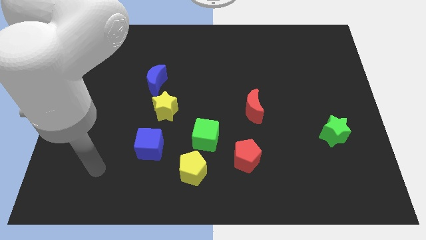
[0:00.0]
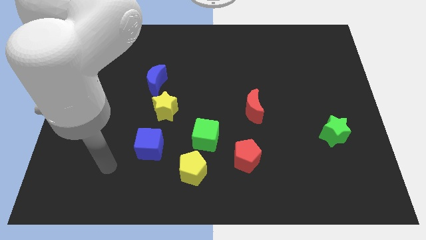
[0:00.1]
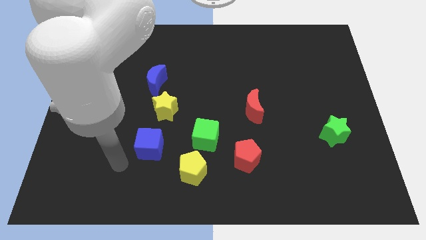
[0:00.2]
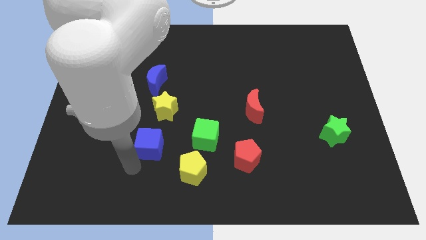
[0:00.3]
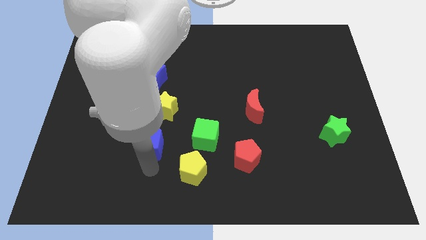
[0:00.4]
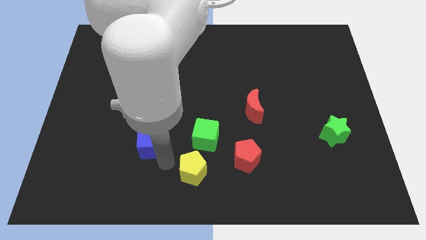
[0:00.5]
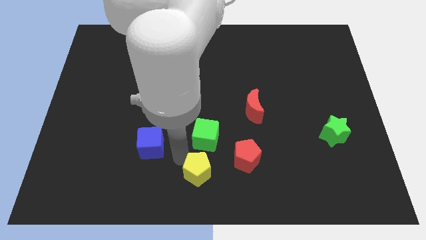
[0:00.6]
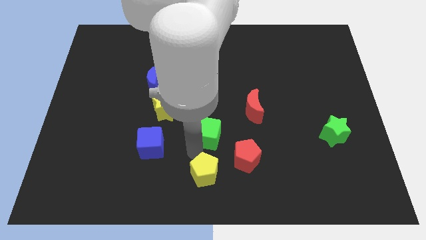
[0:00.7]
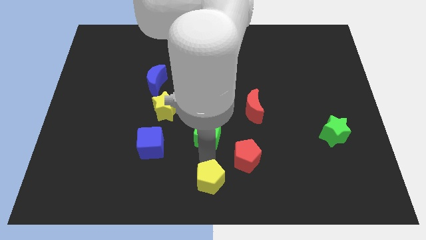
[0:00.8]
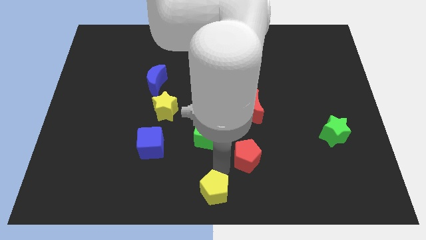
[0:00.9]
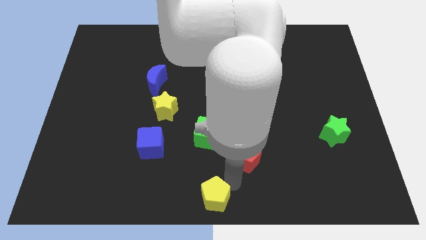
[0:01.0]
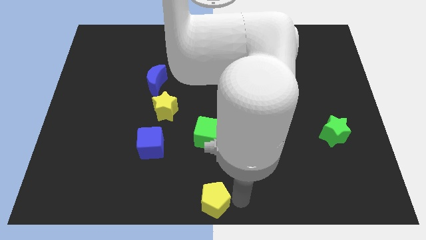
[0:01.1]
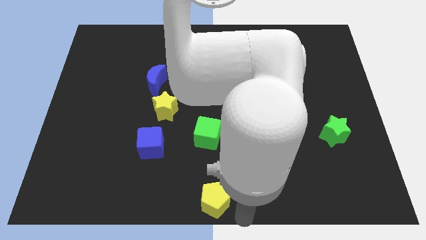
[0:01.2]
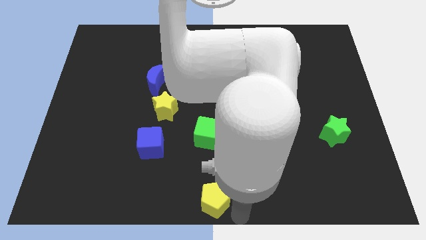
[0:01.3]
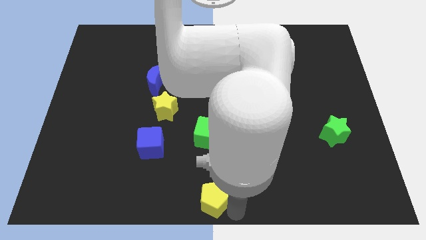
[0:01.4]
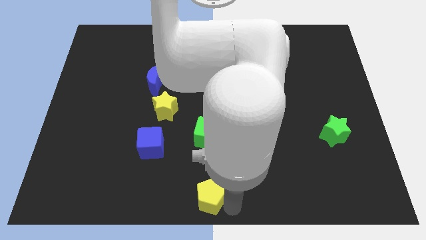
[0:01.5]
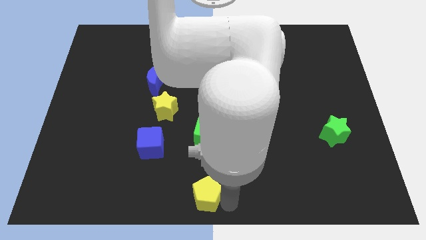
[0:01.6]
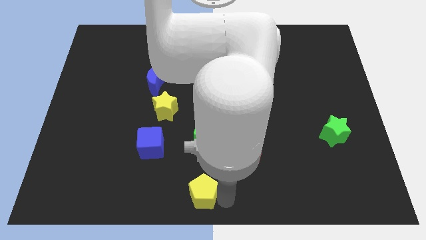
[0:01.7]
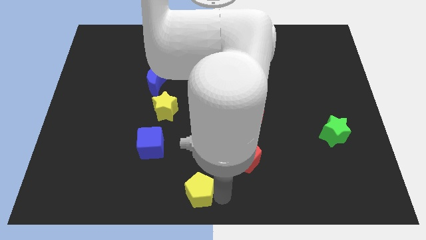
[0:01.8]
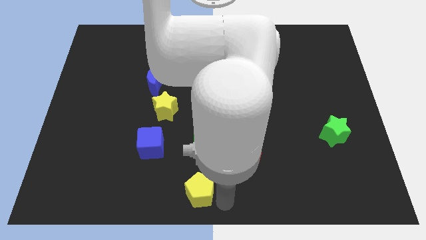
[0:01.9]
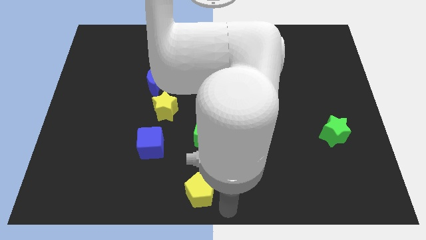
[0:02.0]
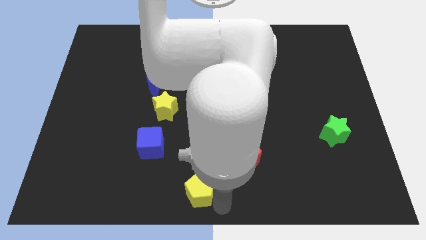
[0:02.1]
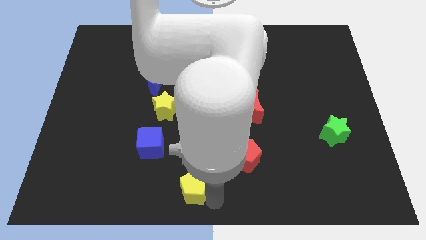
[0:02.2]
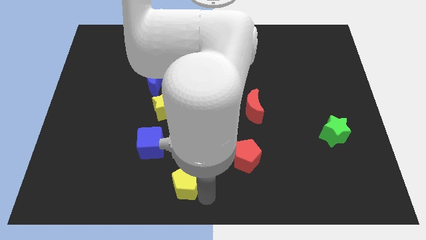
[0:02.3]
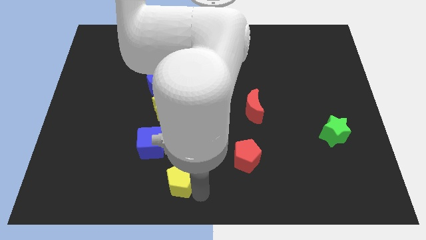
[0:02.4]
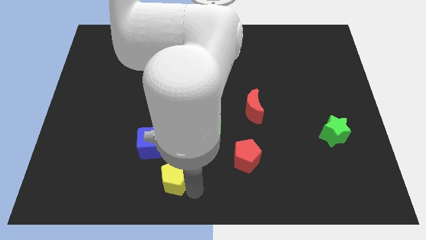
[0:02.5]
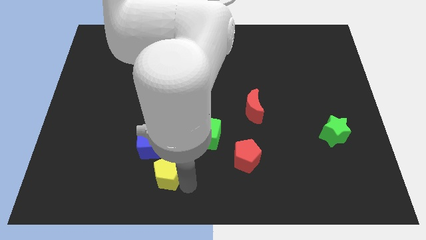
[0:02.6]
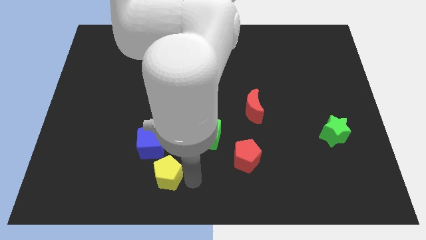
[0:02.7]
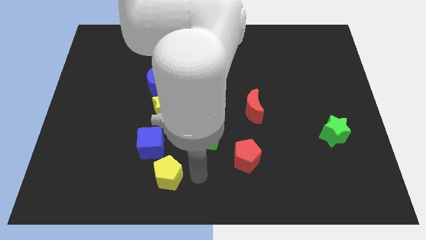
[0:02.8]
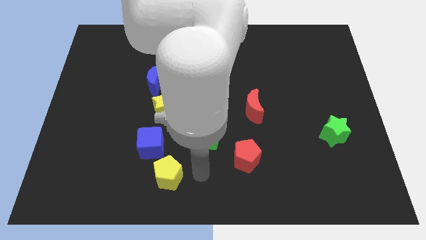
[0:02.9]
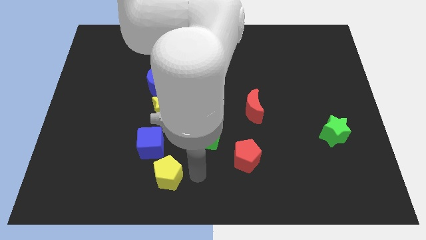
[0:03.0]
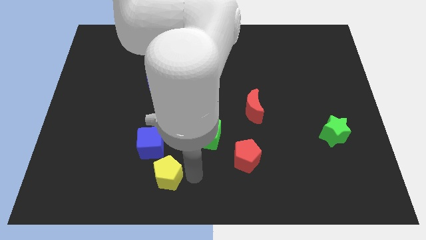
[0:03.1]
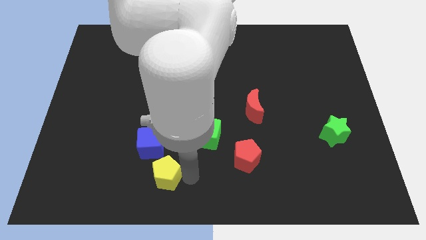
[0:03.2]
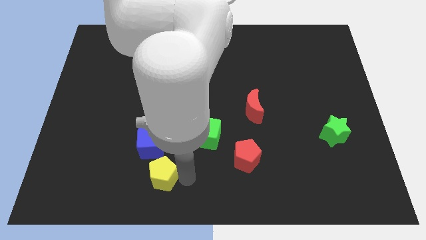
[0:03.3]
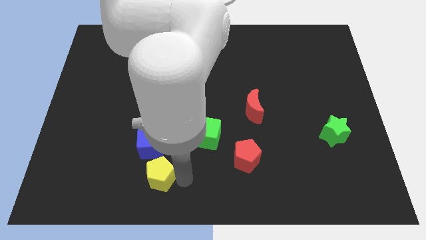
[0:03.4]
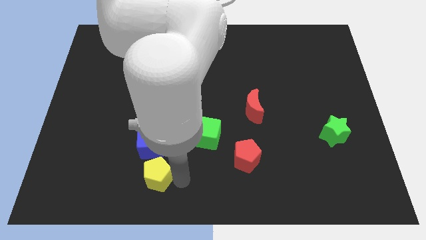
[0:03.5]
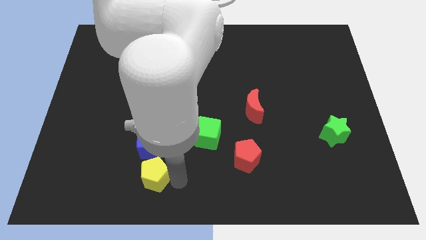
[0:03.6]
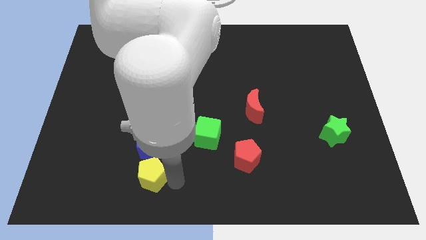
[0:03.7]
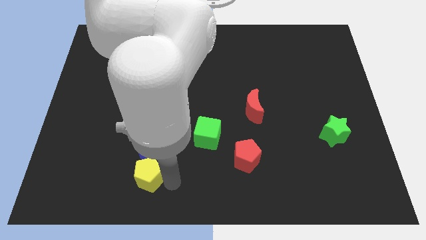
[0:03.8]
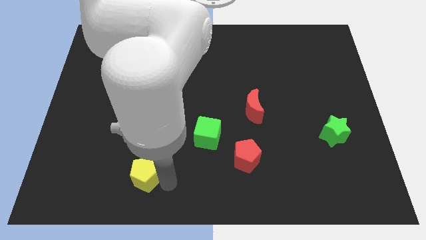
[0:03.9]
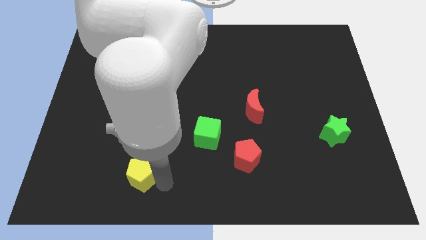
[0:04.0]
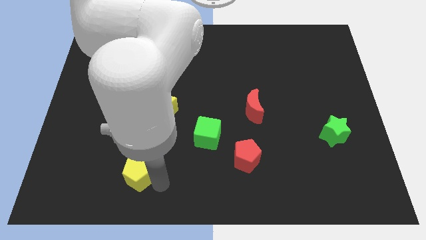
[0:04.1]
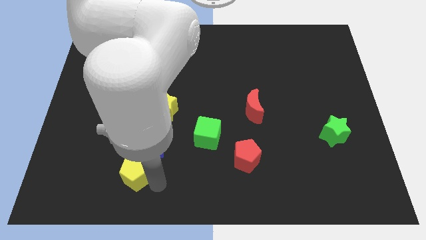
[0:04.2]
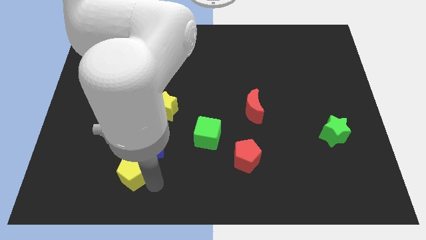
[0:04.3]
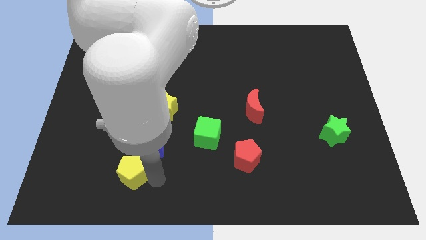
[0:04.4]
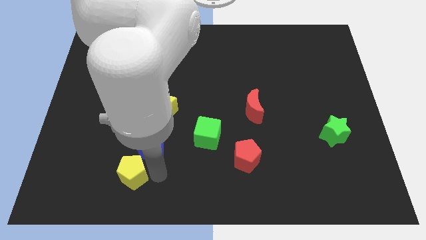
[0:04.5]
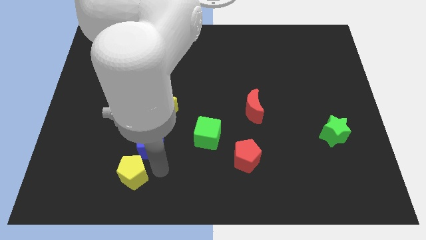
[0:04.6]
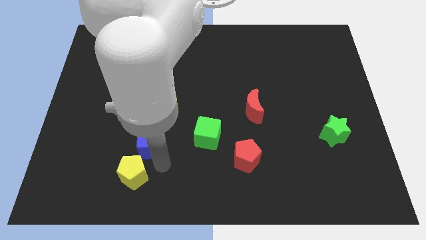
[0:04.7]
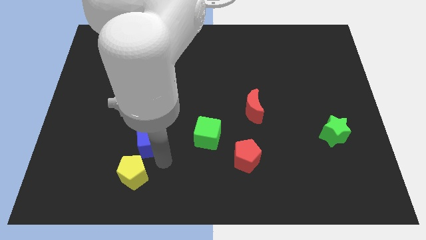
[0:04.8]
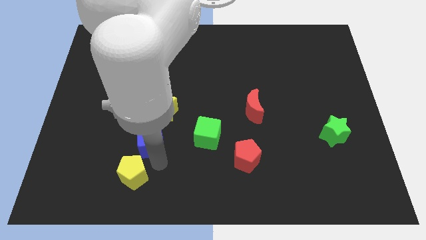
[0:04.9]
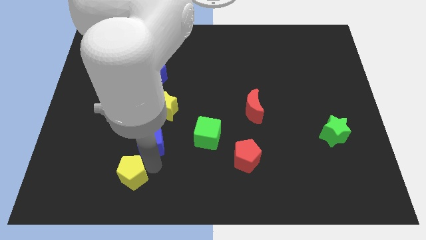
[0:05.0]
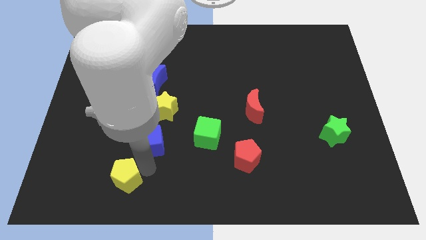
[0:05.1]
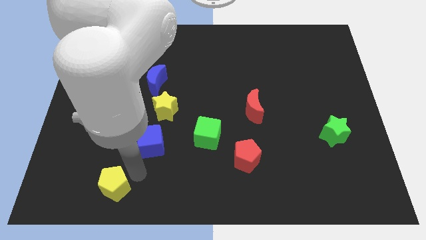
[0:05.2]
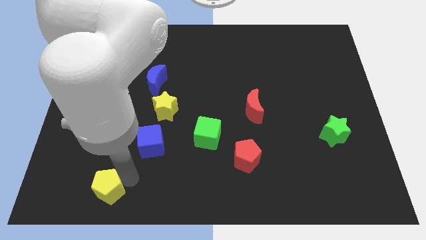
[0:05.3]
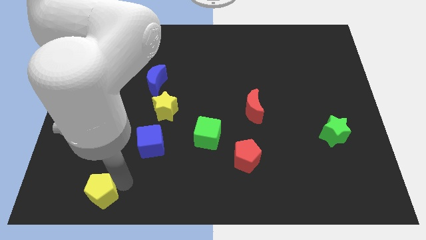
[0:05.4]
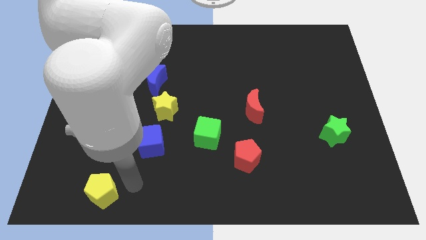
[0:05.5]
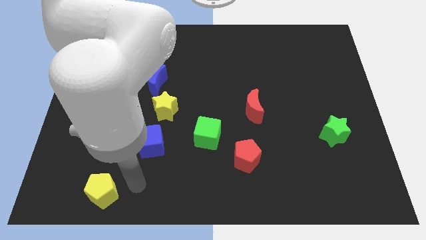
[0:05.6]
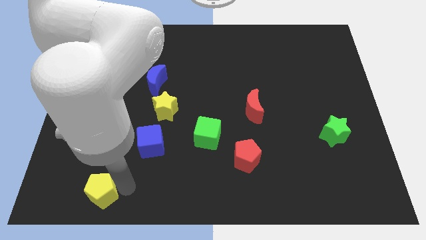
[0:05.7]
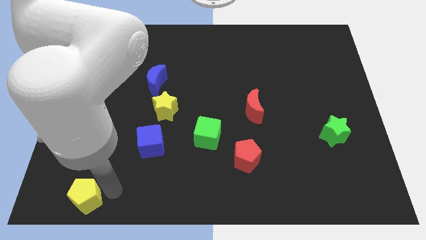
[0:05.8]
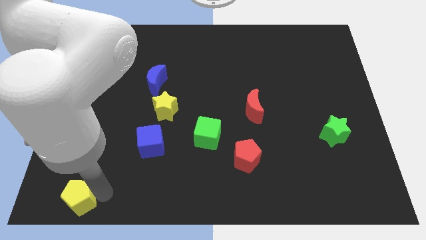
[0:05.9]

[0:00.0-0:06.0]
push the yellow pentagon to the bottom left corner

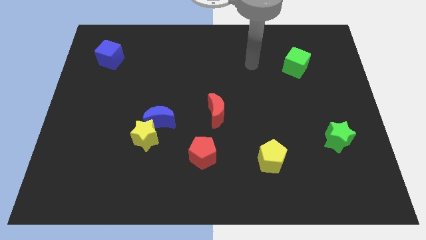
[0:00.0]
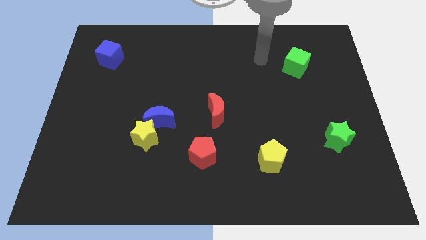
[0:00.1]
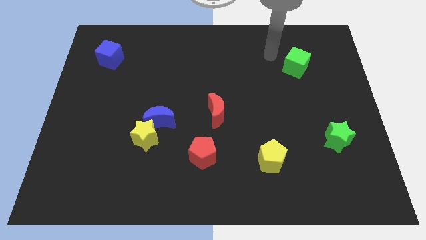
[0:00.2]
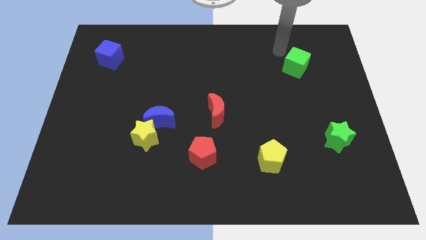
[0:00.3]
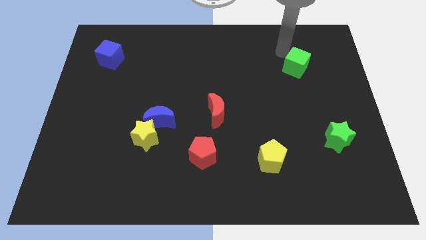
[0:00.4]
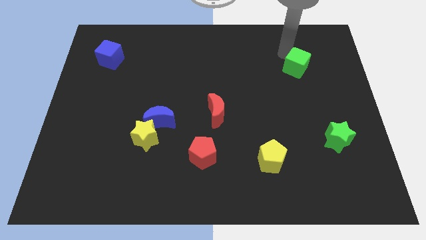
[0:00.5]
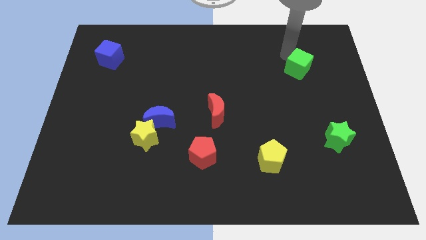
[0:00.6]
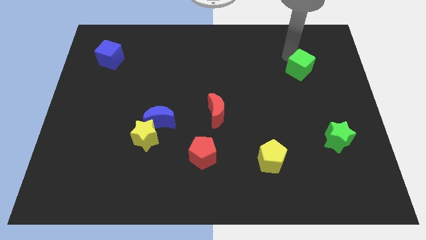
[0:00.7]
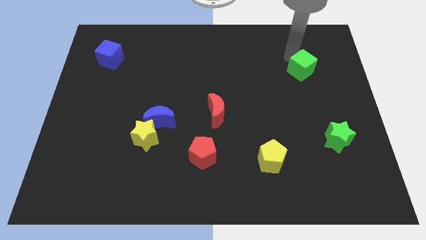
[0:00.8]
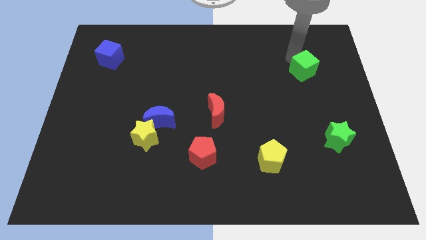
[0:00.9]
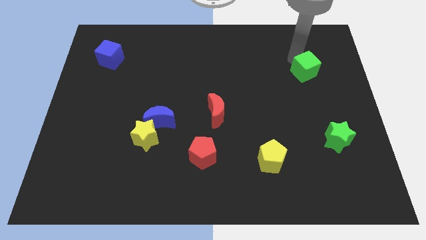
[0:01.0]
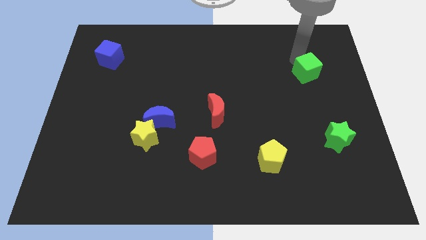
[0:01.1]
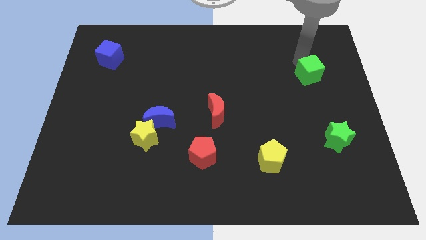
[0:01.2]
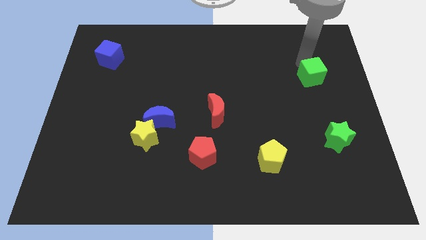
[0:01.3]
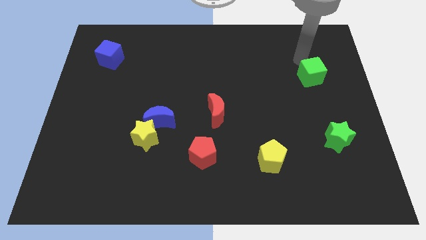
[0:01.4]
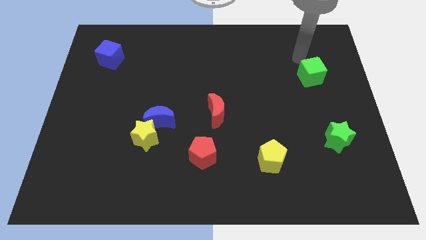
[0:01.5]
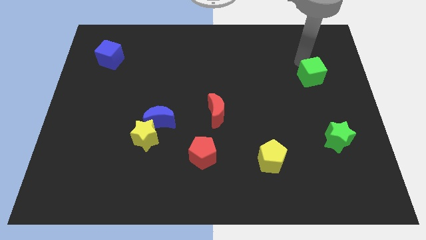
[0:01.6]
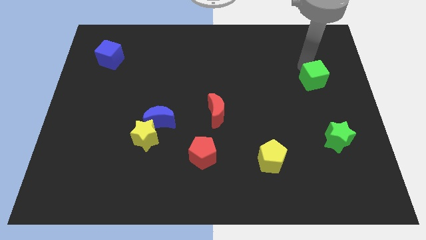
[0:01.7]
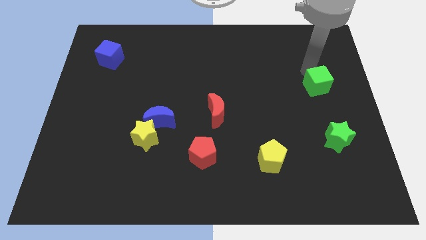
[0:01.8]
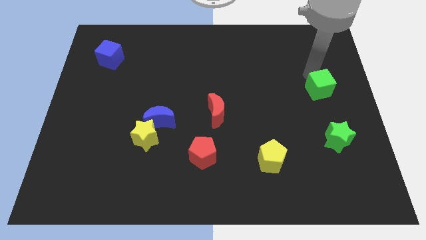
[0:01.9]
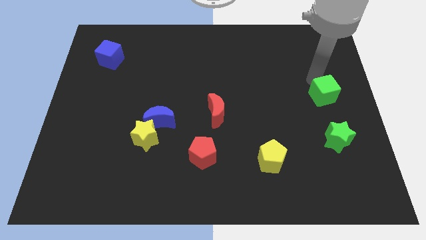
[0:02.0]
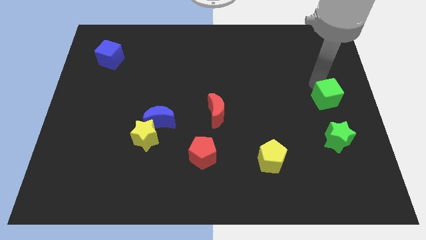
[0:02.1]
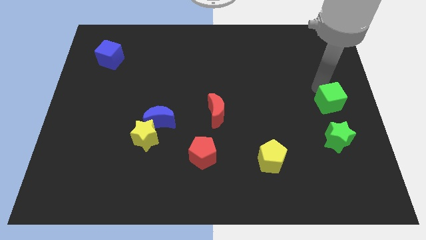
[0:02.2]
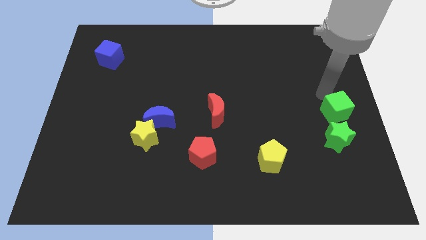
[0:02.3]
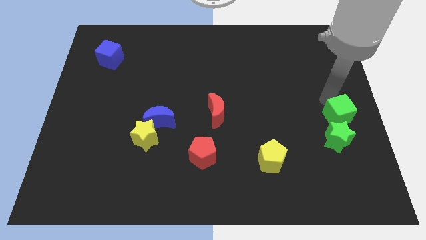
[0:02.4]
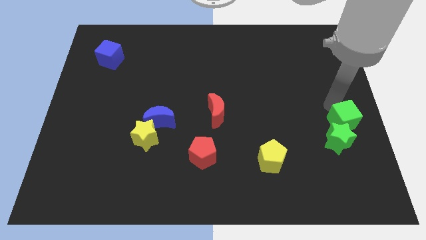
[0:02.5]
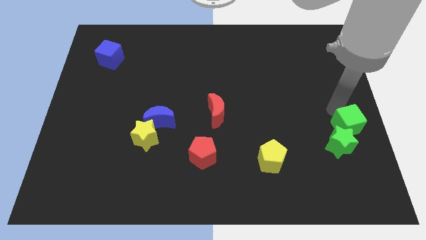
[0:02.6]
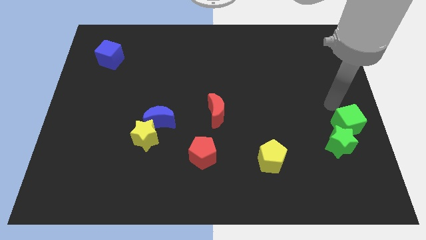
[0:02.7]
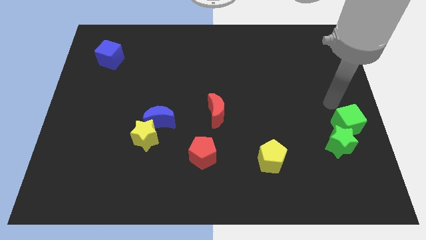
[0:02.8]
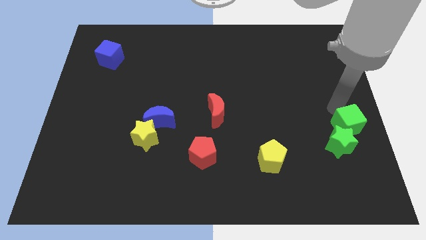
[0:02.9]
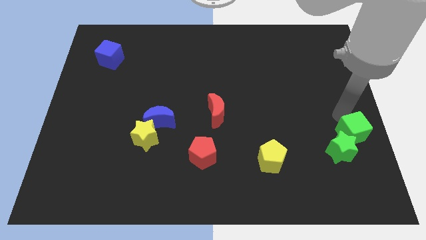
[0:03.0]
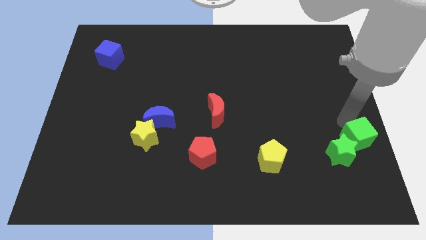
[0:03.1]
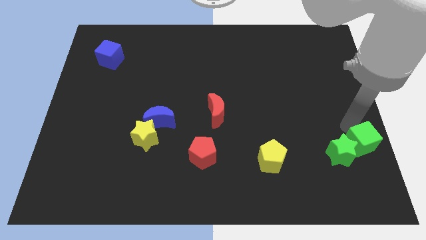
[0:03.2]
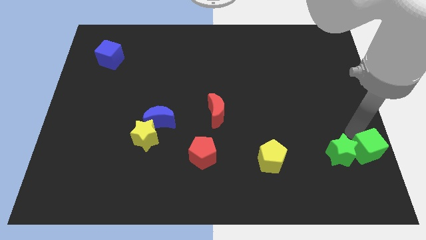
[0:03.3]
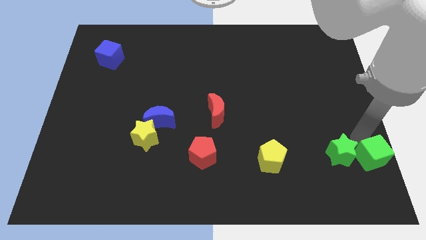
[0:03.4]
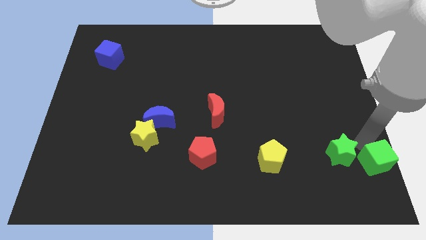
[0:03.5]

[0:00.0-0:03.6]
move the green cube to the bottom right
